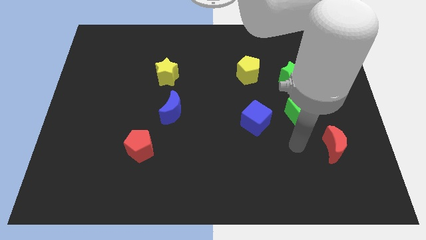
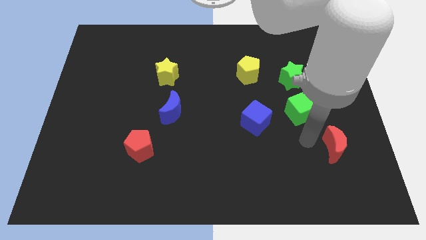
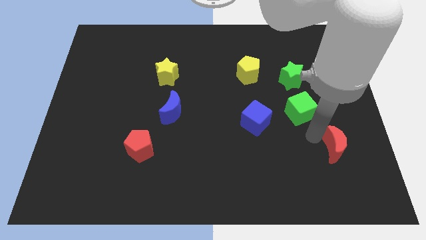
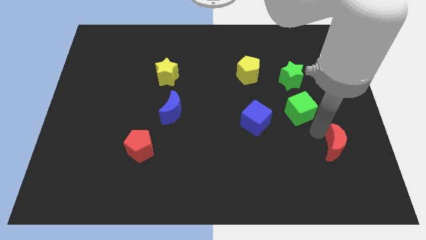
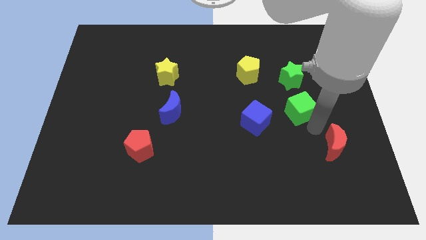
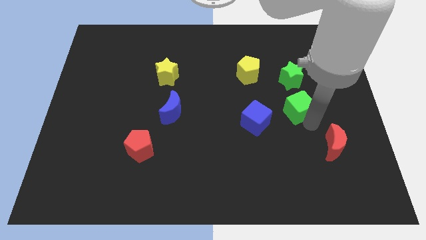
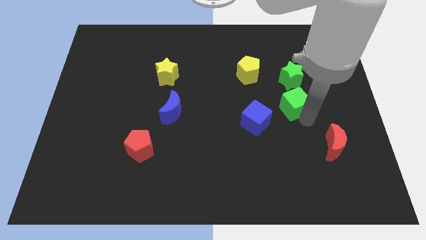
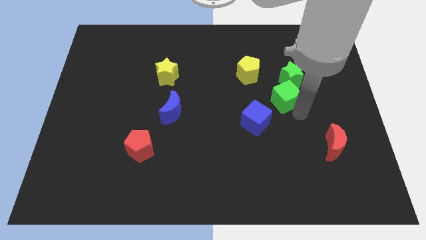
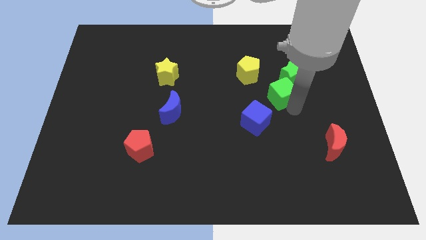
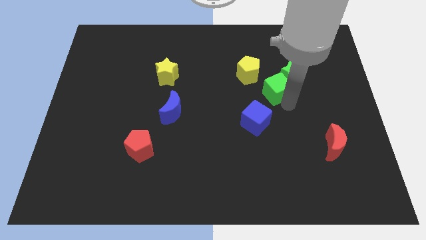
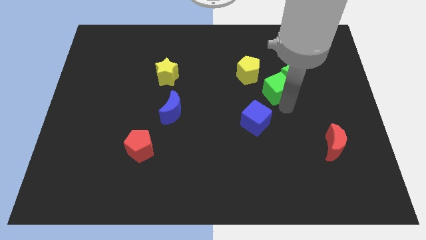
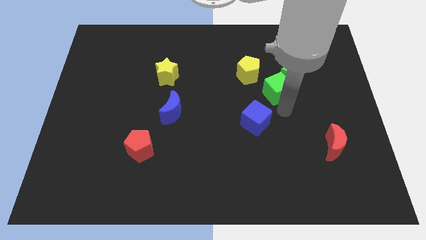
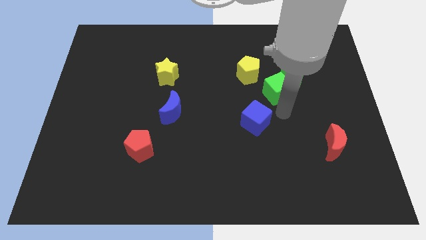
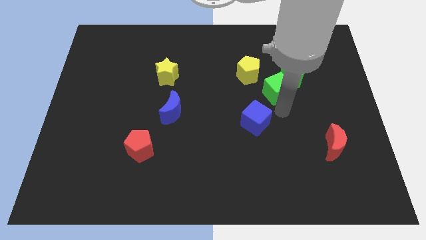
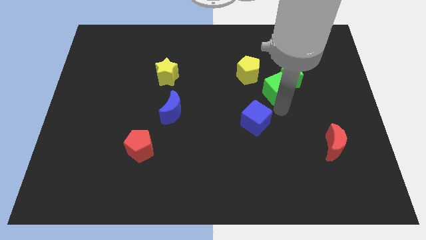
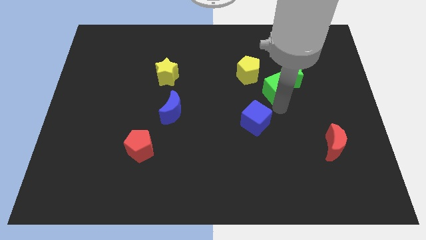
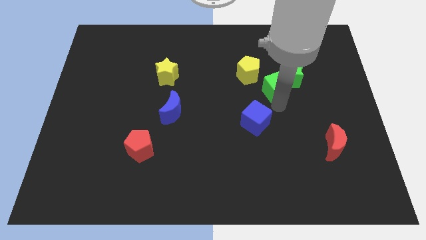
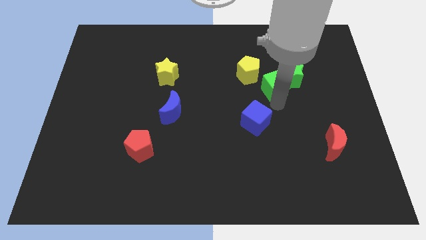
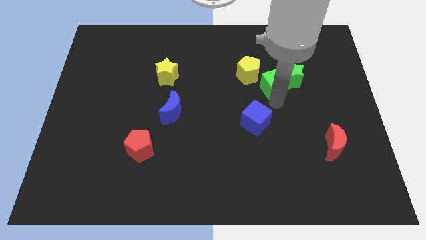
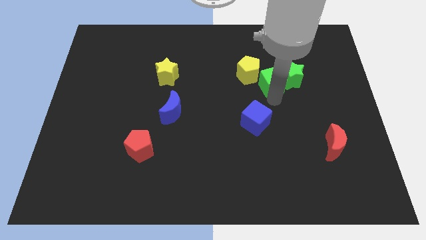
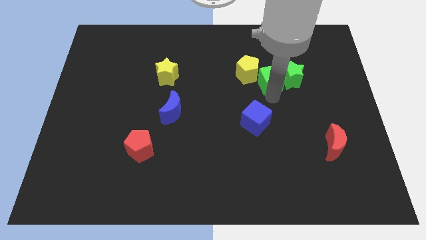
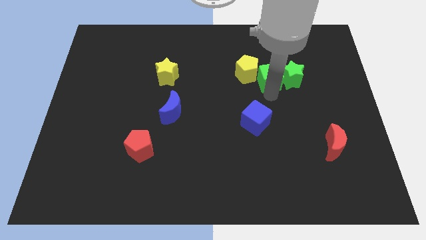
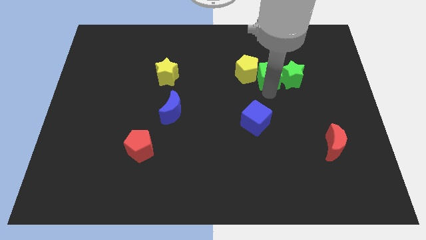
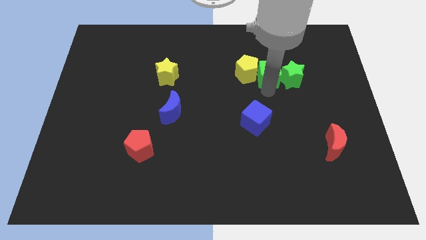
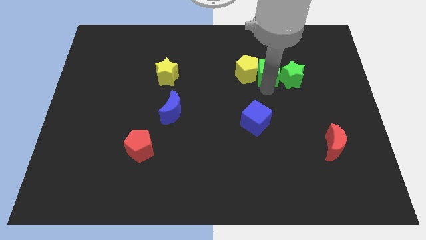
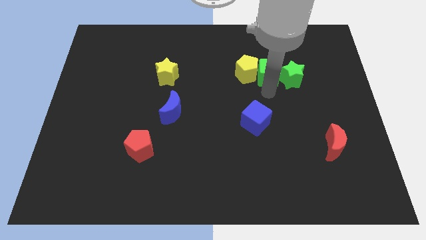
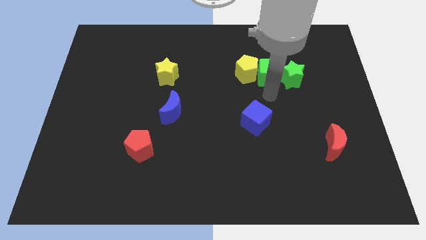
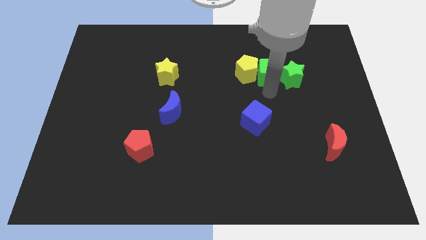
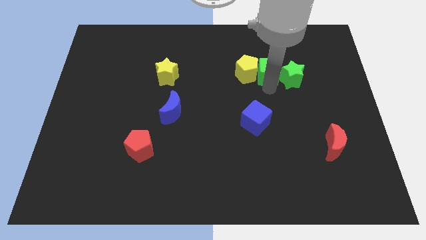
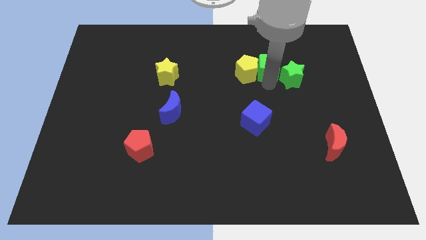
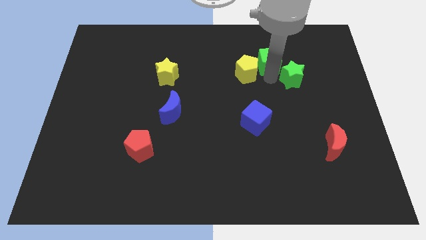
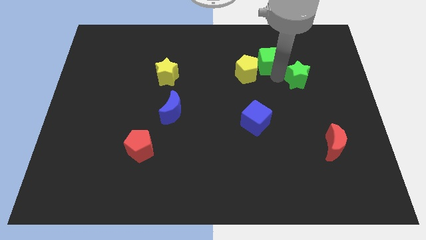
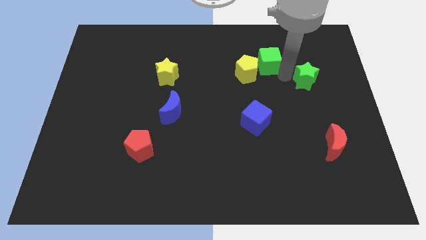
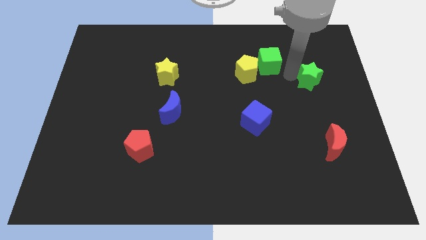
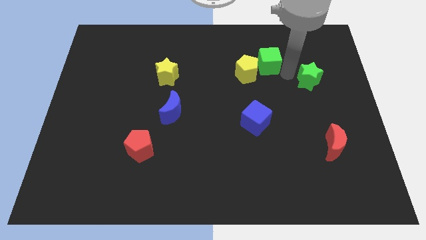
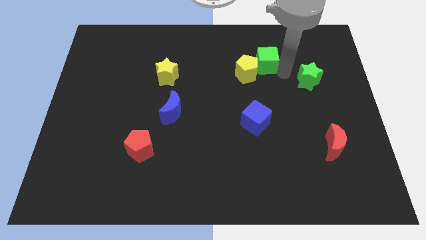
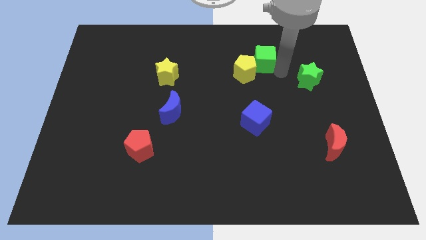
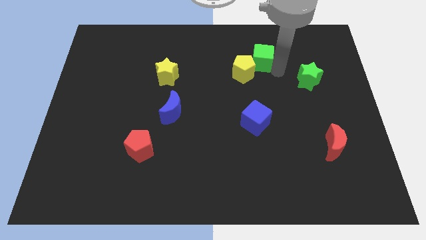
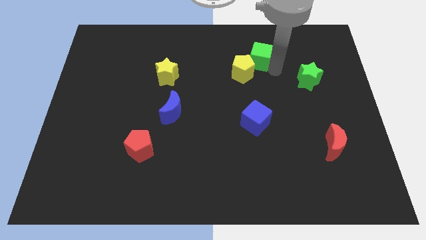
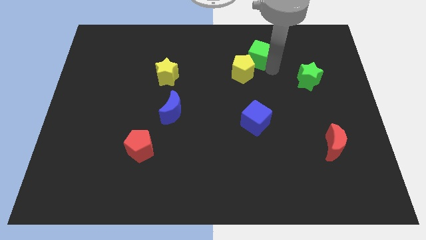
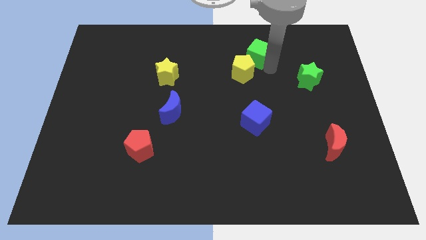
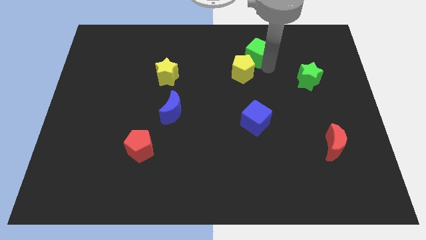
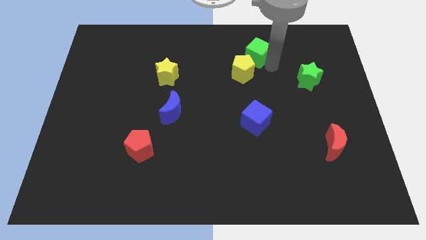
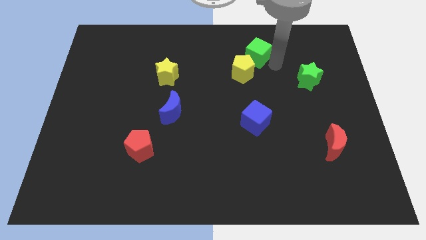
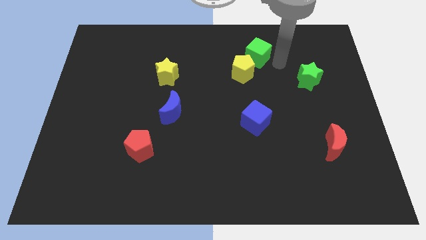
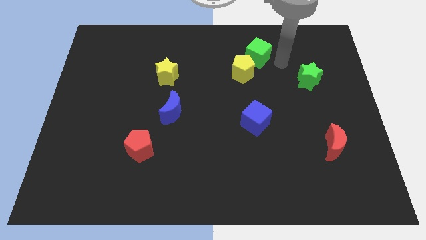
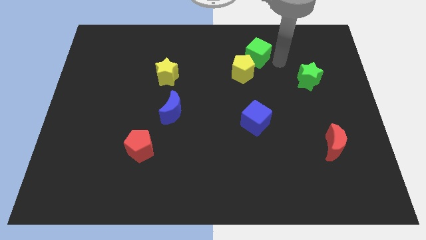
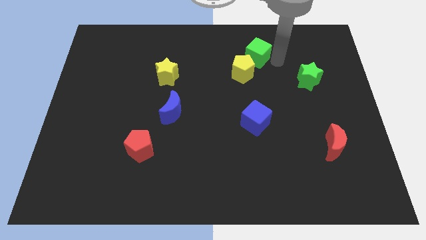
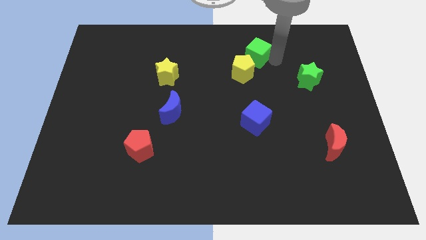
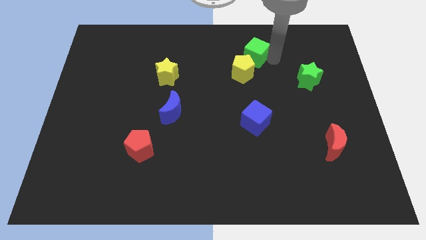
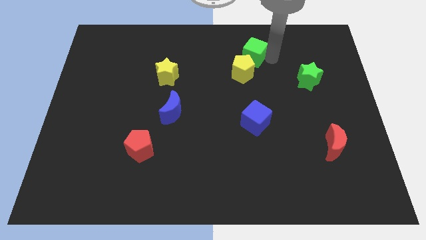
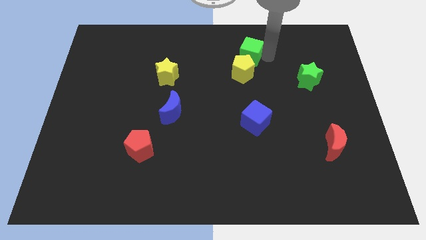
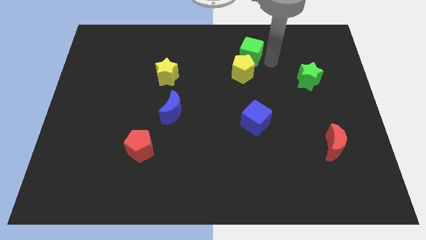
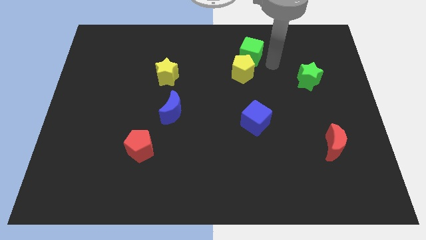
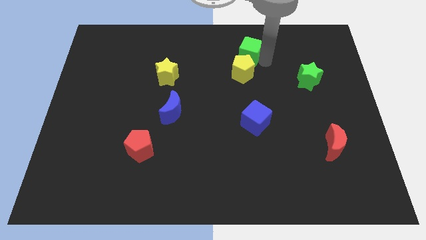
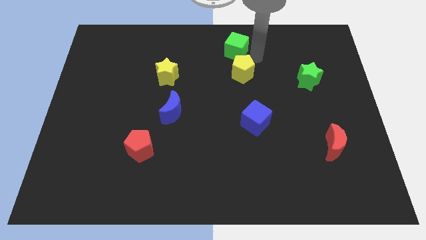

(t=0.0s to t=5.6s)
move the green cube to the top side
